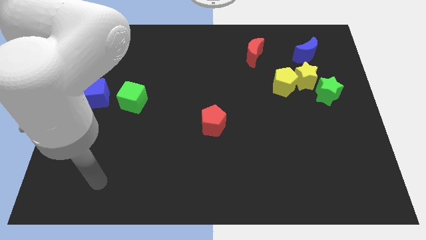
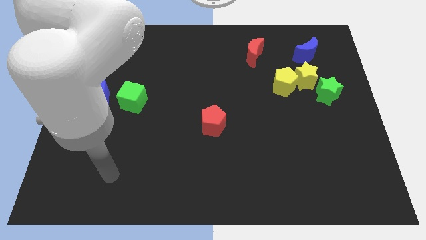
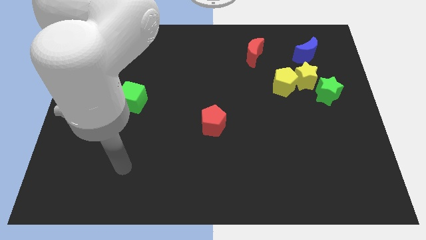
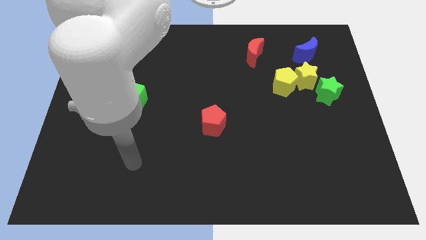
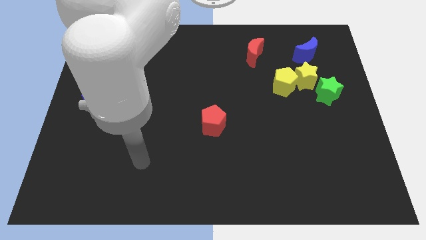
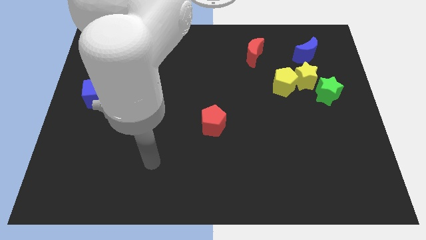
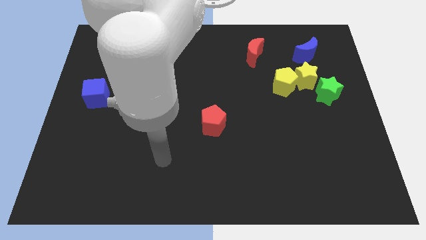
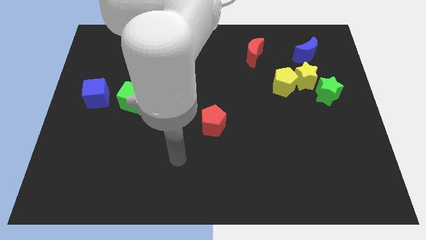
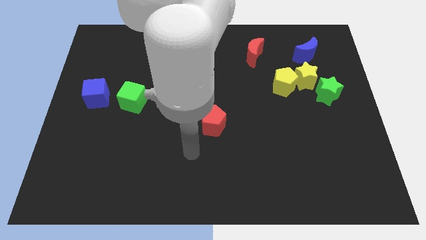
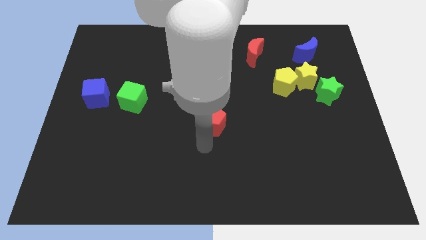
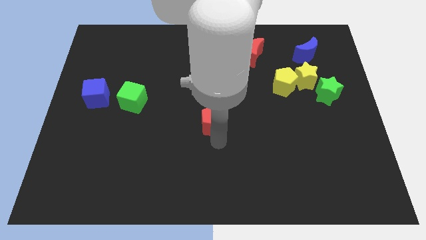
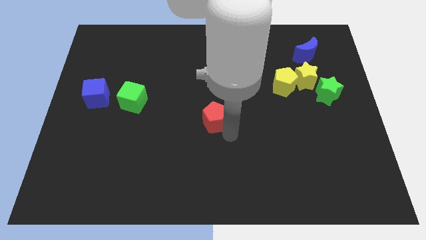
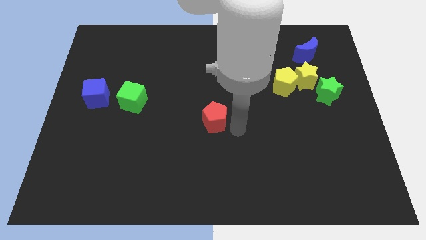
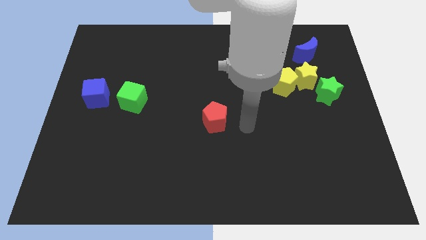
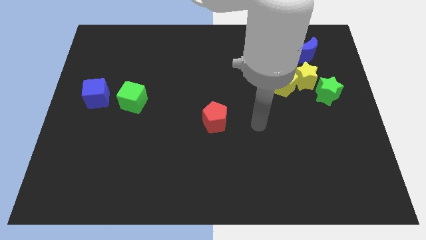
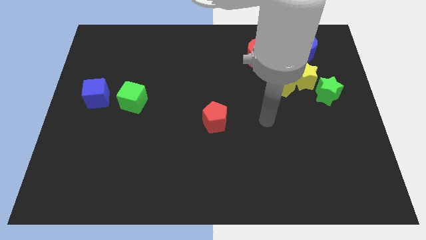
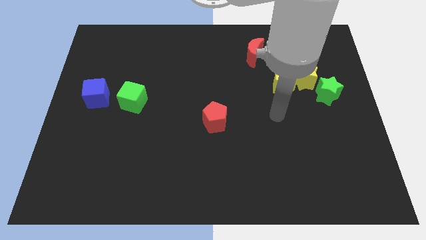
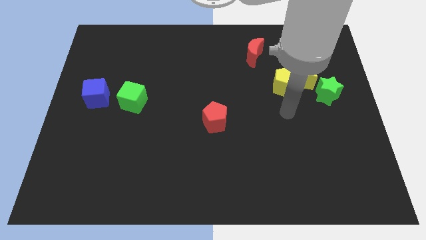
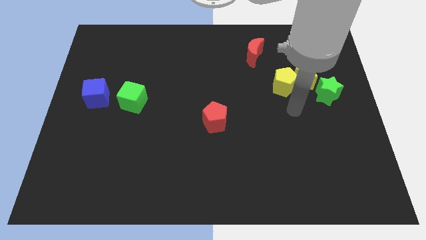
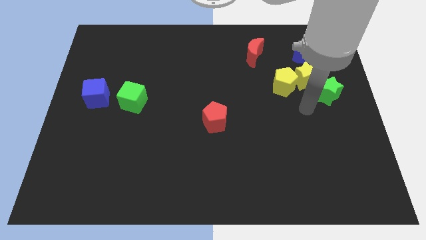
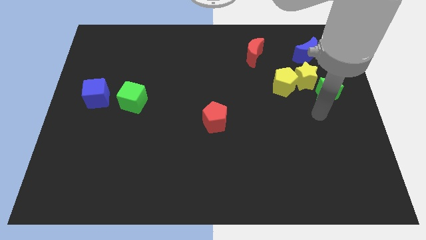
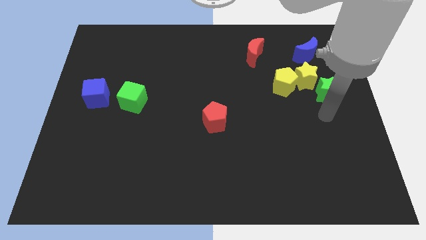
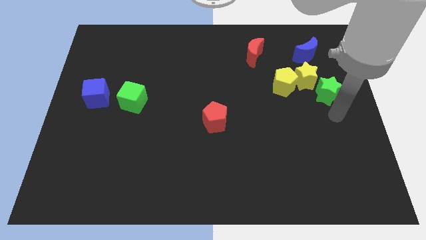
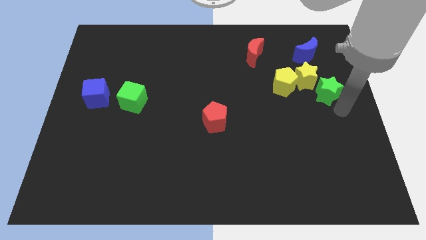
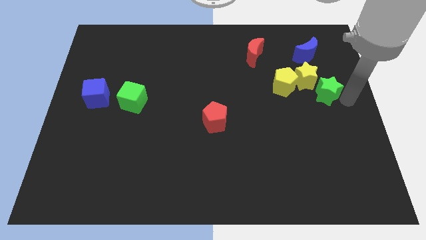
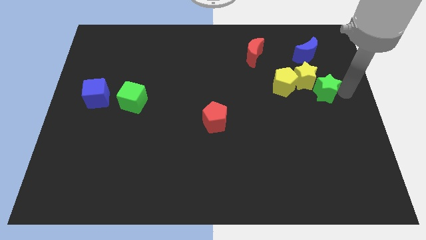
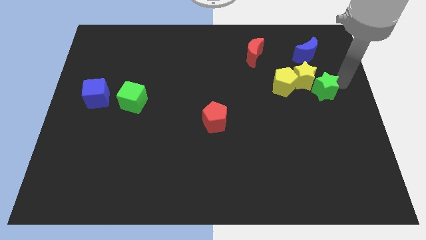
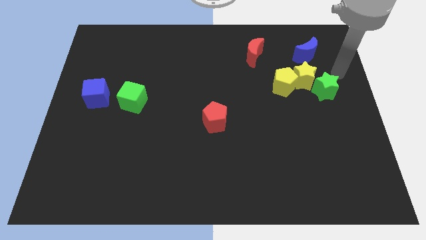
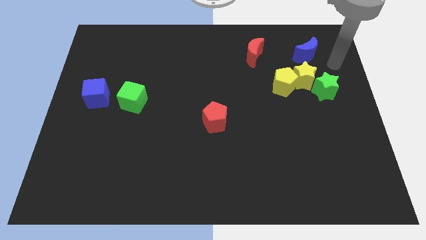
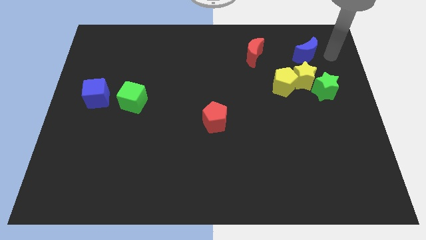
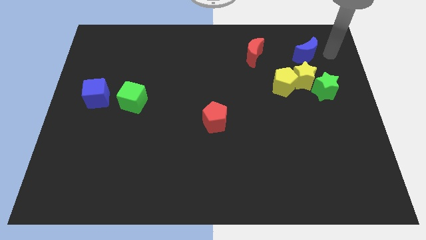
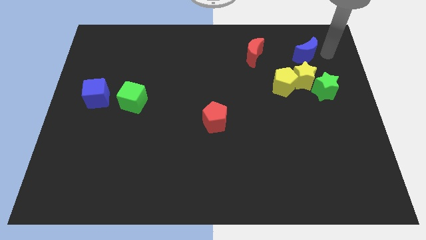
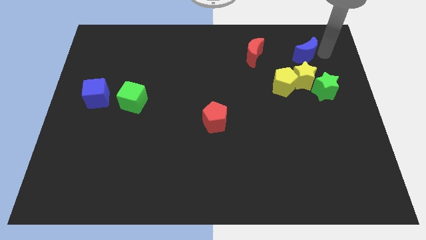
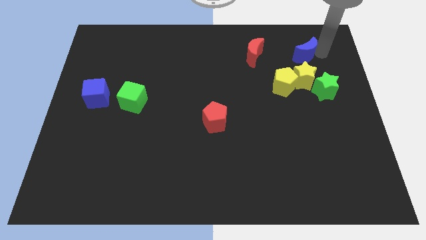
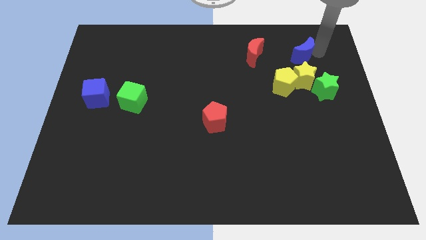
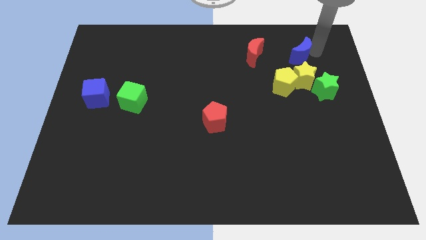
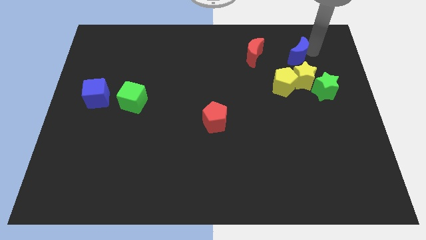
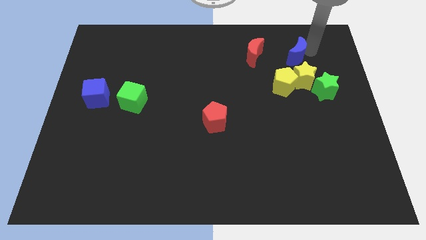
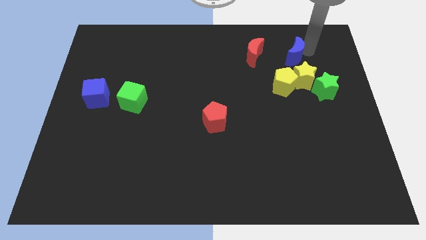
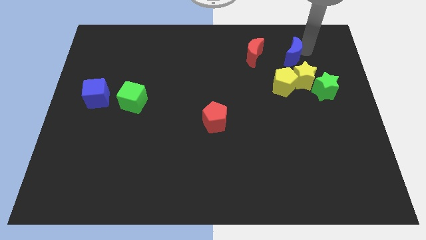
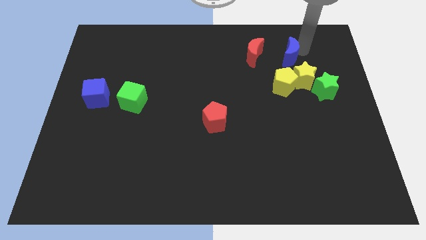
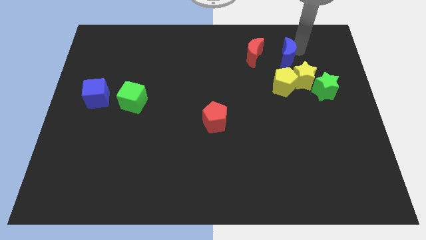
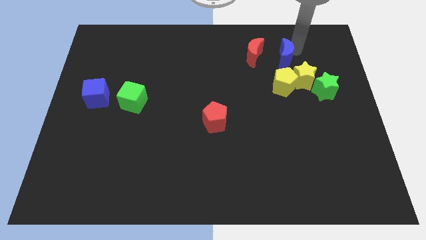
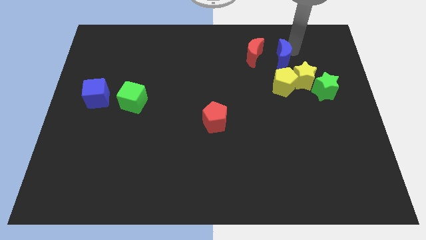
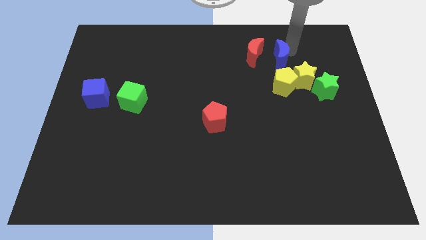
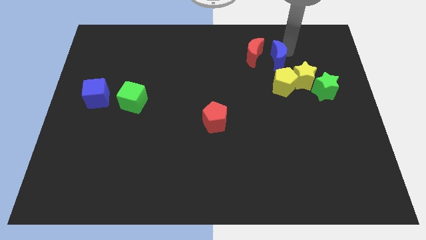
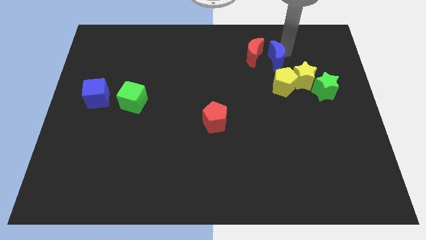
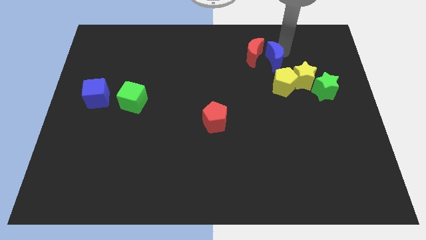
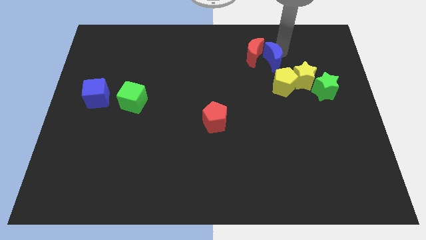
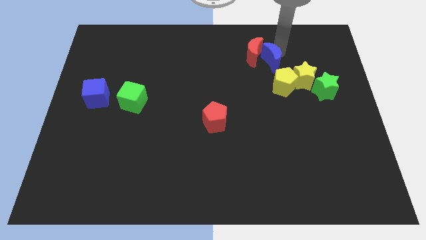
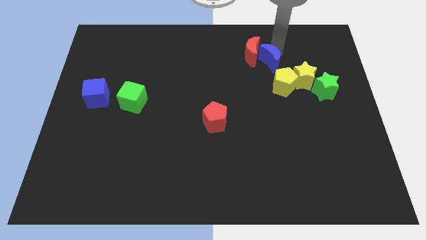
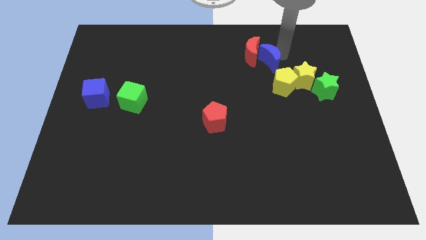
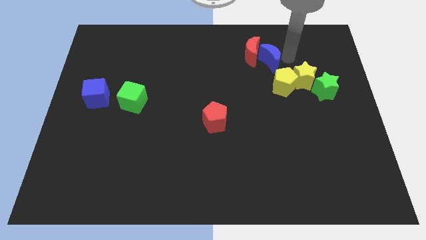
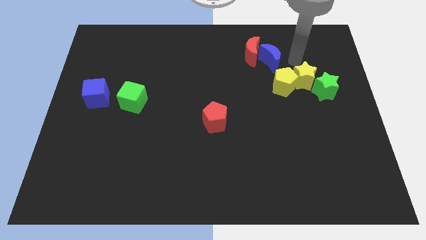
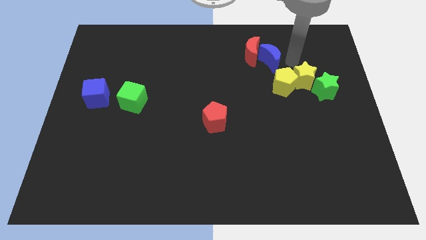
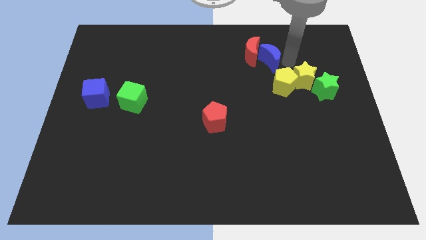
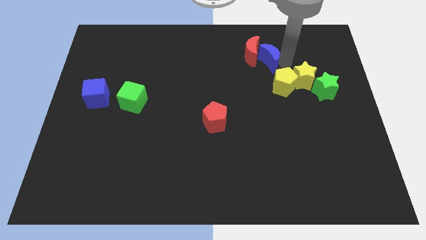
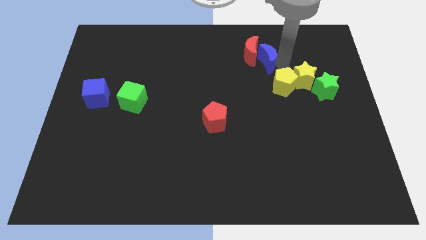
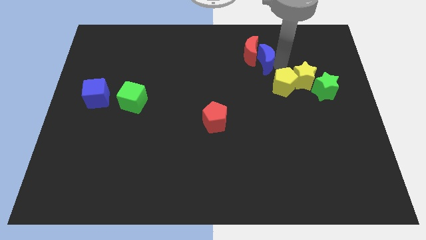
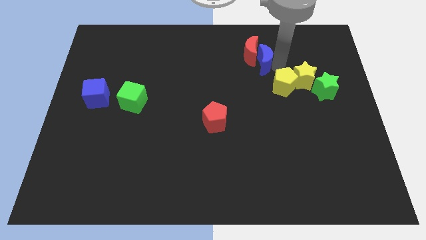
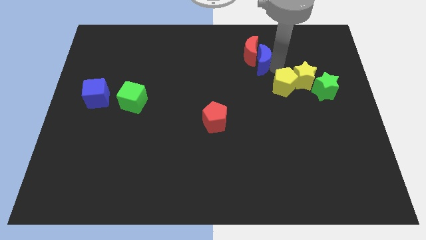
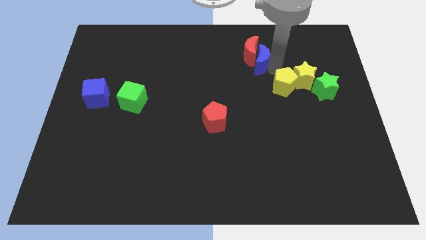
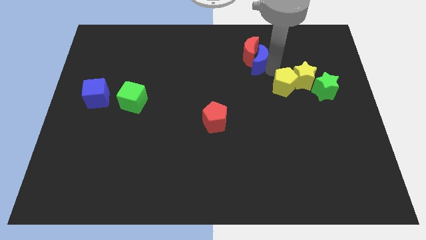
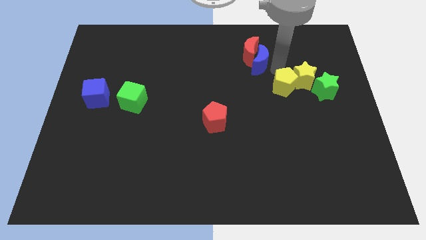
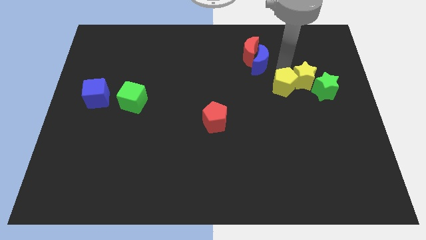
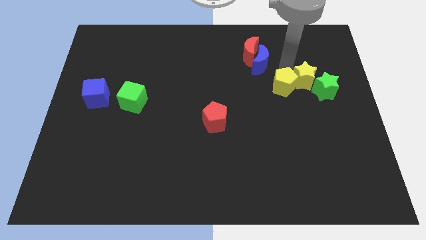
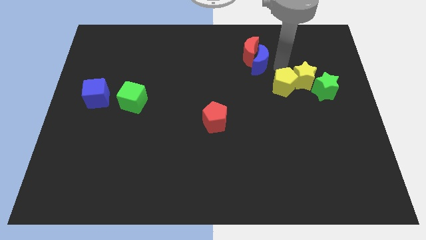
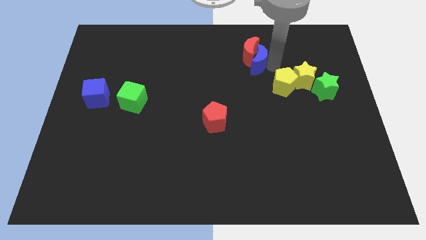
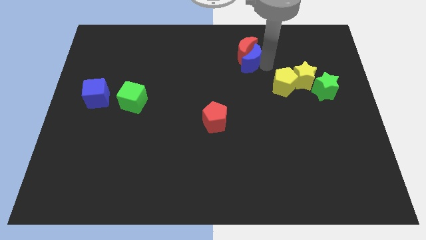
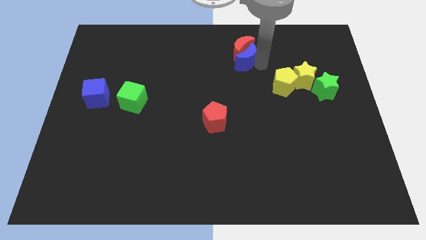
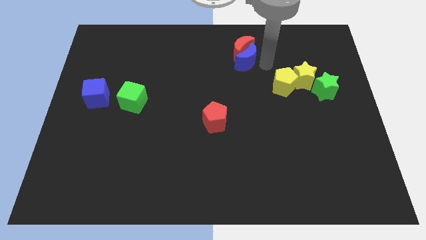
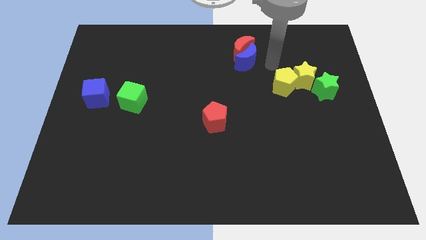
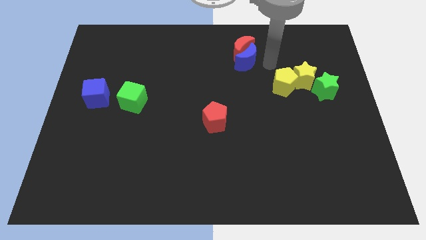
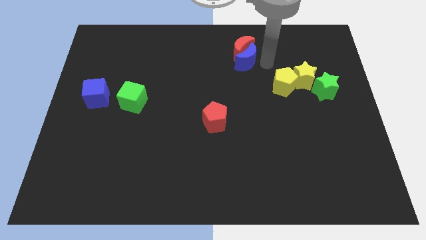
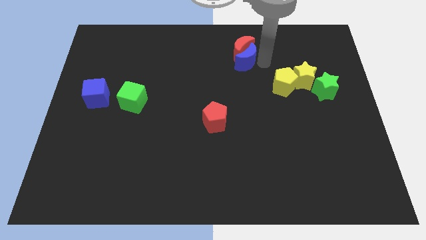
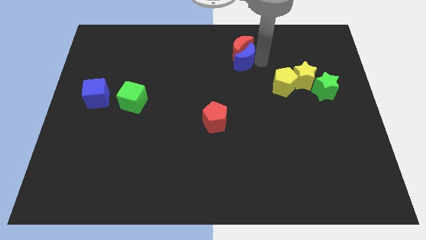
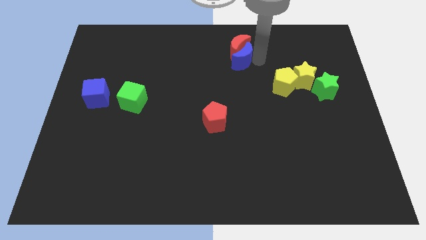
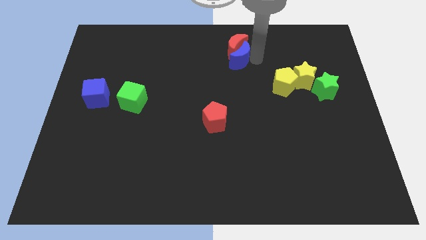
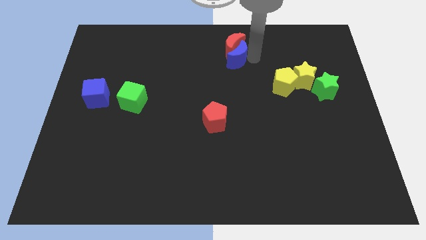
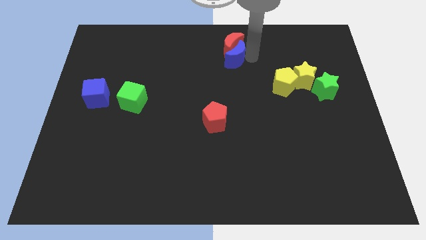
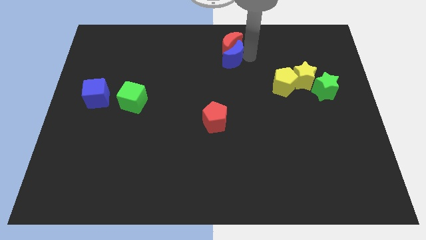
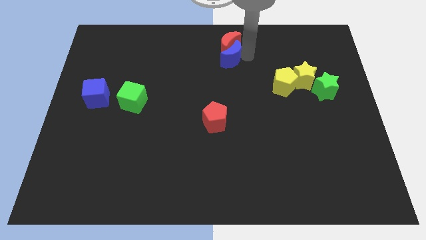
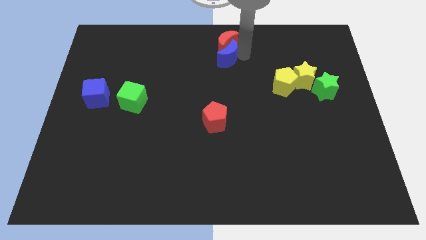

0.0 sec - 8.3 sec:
move the blue moon left
